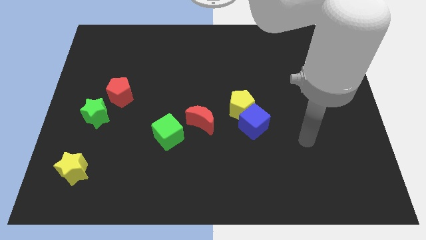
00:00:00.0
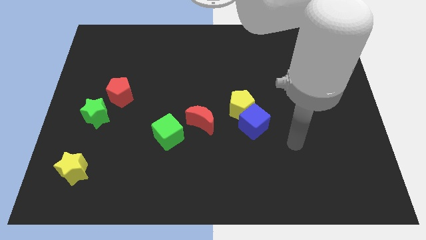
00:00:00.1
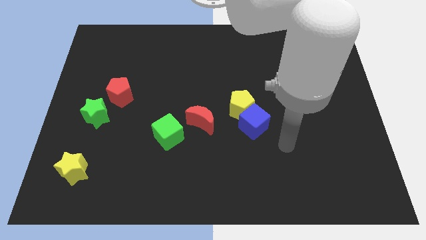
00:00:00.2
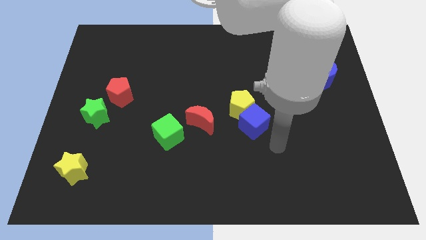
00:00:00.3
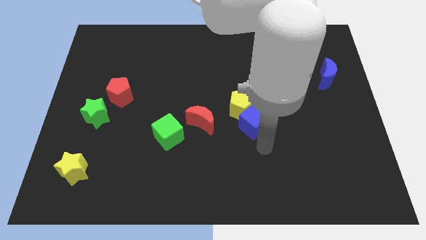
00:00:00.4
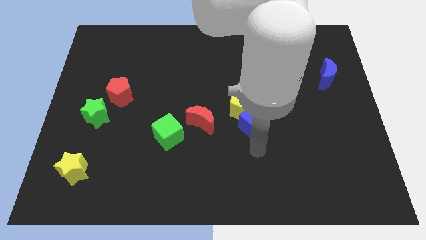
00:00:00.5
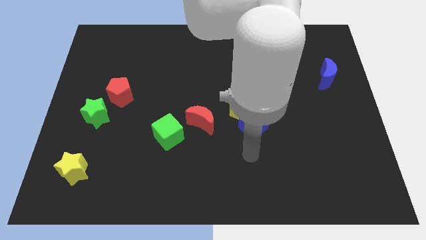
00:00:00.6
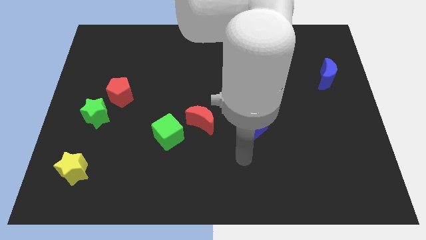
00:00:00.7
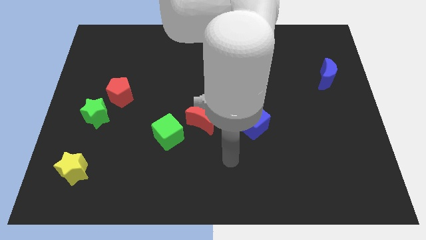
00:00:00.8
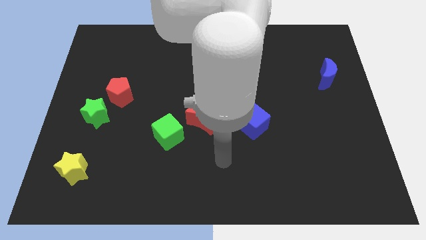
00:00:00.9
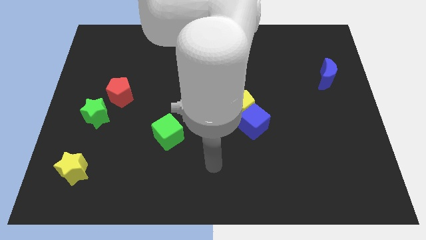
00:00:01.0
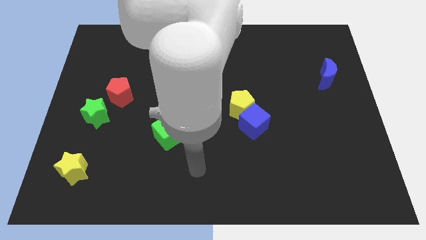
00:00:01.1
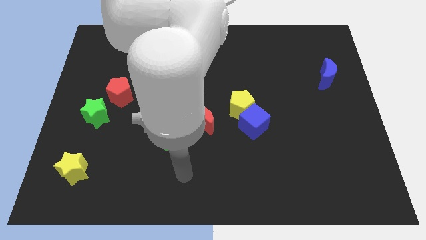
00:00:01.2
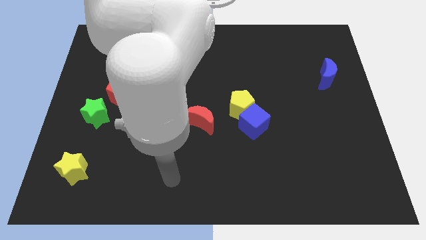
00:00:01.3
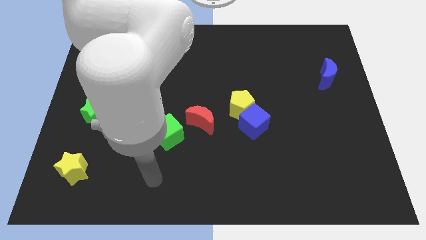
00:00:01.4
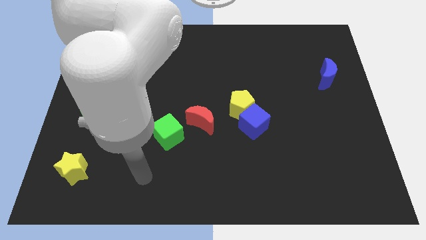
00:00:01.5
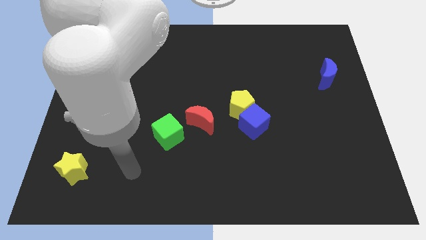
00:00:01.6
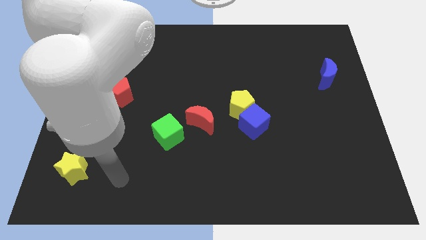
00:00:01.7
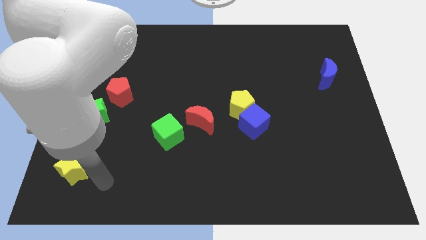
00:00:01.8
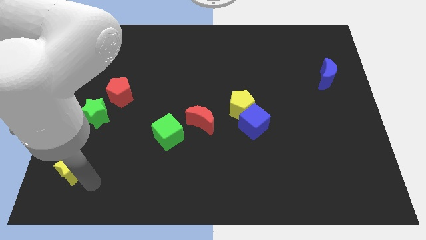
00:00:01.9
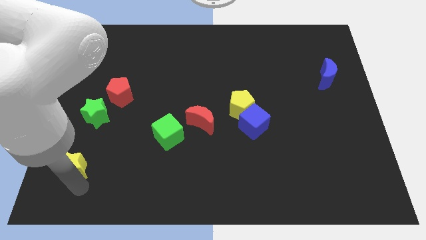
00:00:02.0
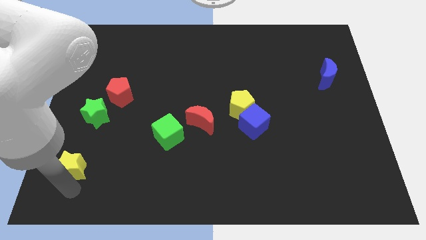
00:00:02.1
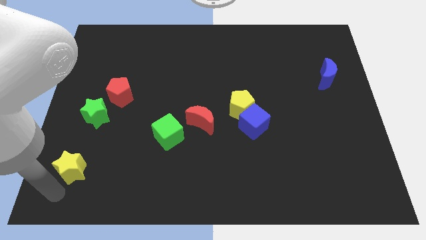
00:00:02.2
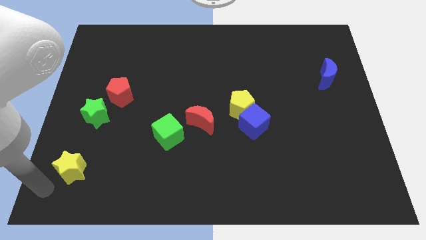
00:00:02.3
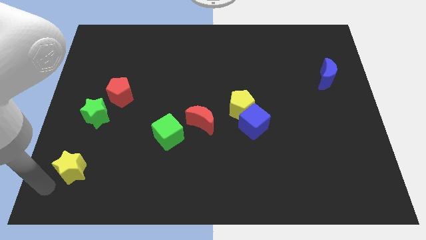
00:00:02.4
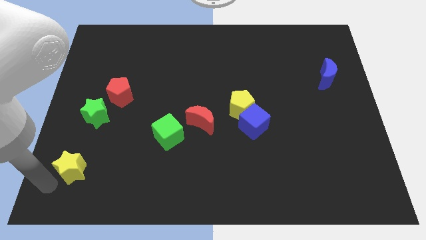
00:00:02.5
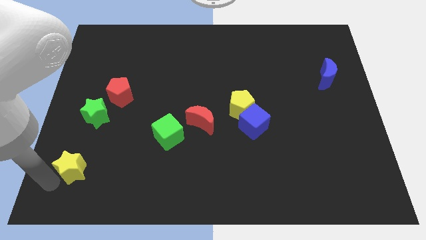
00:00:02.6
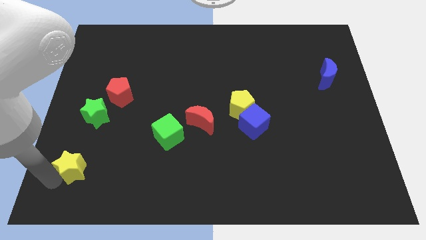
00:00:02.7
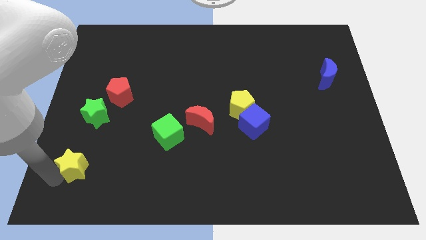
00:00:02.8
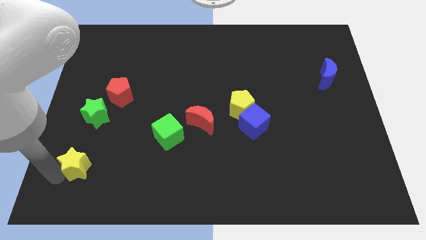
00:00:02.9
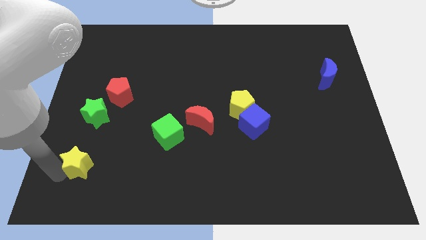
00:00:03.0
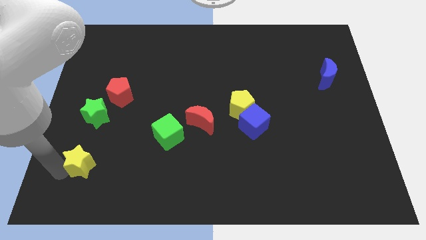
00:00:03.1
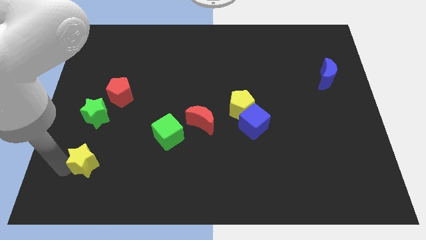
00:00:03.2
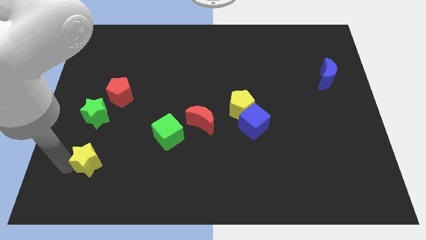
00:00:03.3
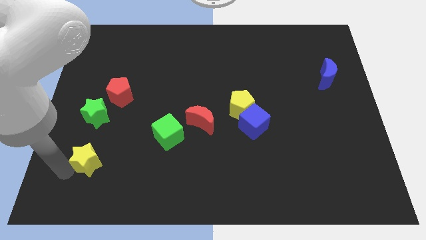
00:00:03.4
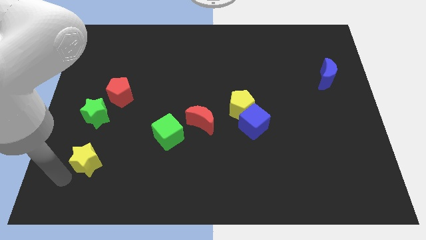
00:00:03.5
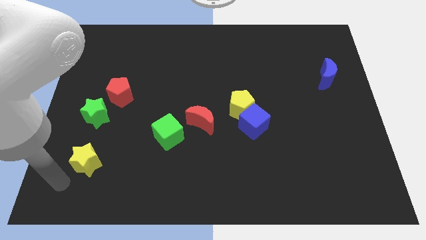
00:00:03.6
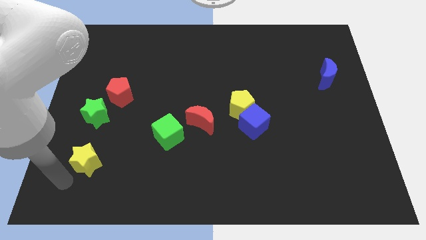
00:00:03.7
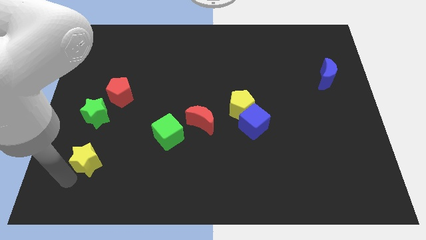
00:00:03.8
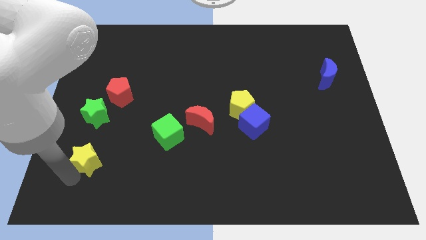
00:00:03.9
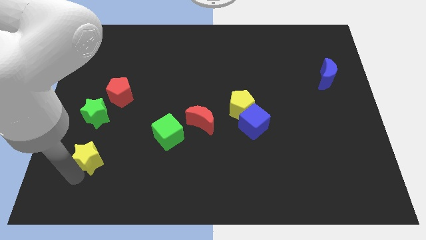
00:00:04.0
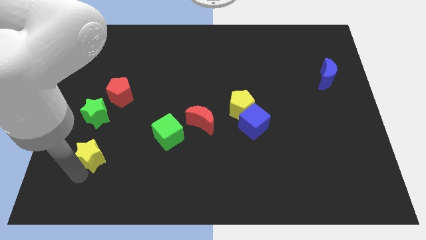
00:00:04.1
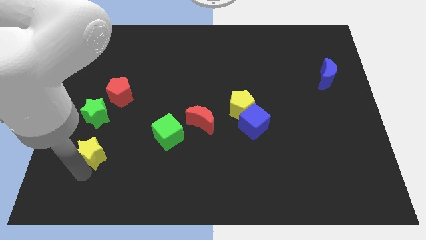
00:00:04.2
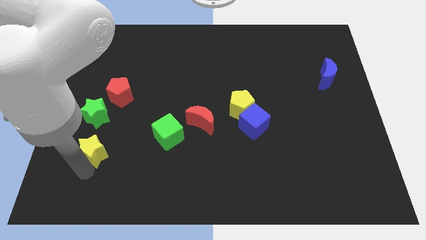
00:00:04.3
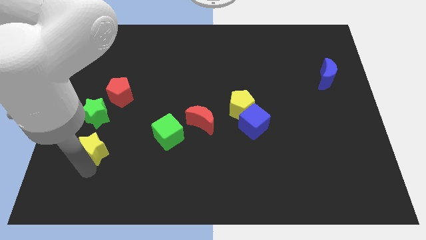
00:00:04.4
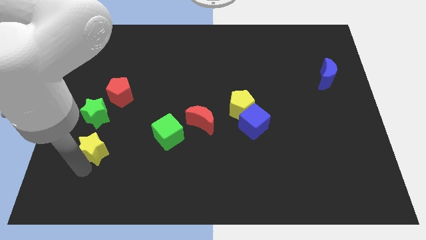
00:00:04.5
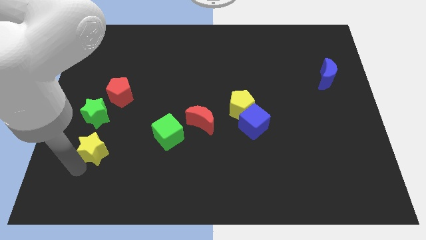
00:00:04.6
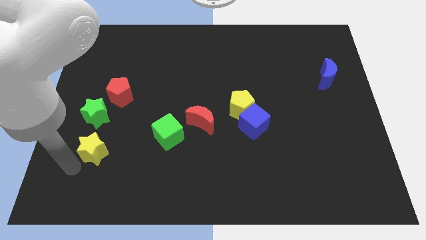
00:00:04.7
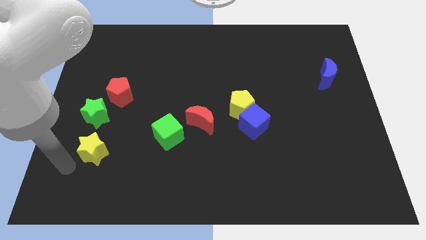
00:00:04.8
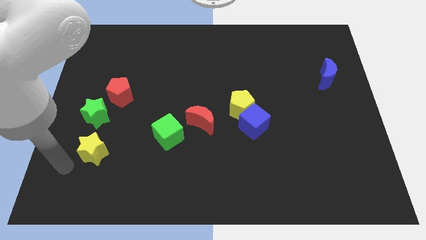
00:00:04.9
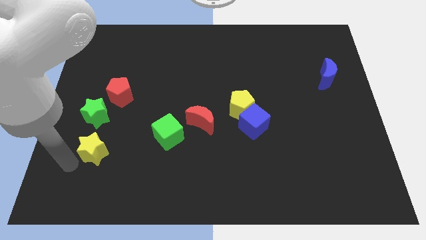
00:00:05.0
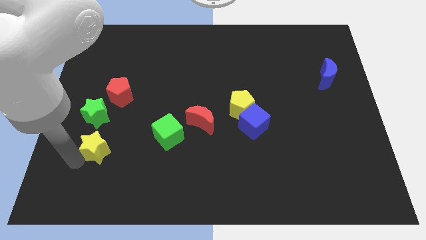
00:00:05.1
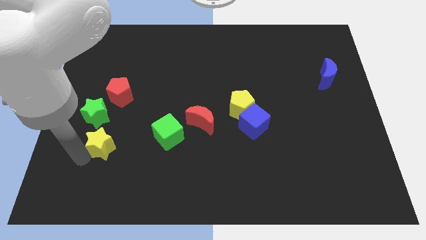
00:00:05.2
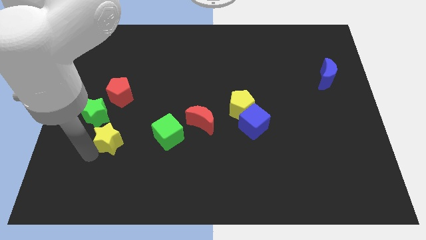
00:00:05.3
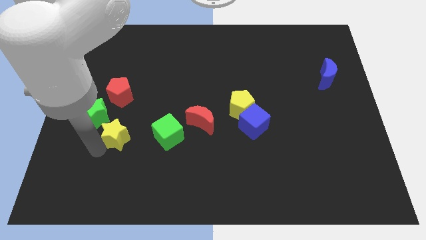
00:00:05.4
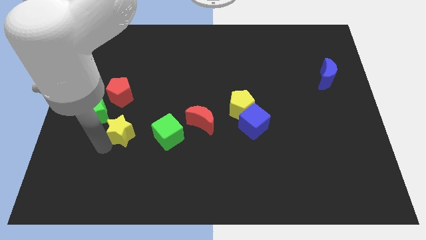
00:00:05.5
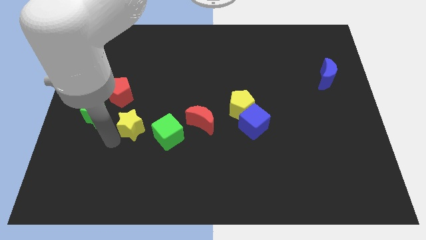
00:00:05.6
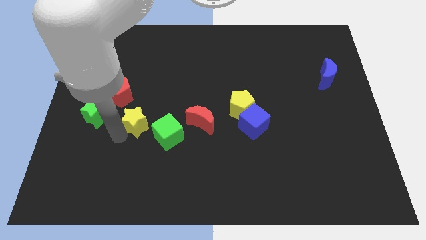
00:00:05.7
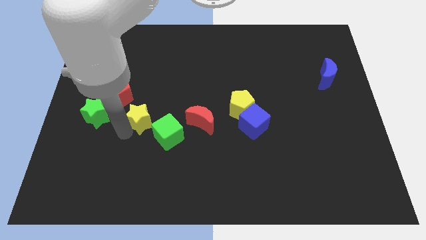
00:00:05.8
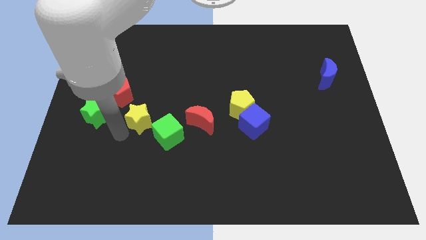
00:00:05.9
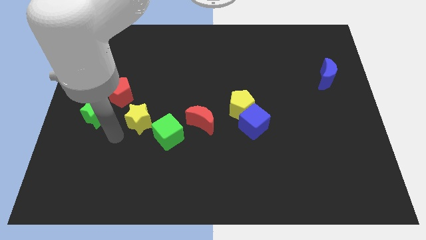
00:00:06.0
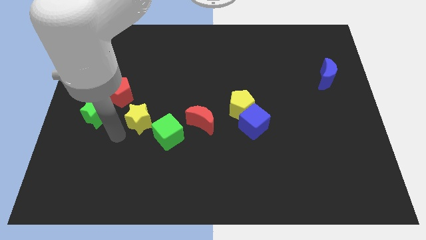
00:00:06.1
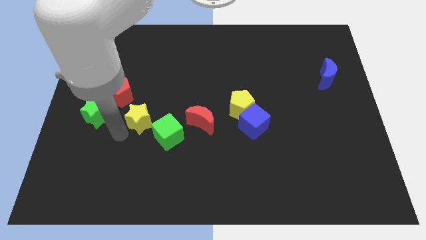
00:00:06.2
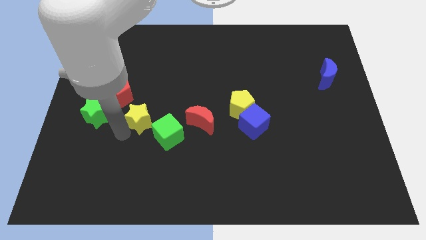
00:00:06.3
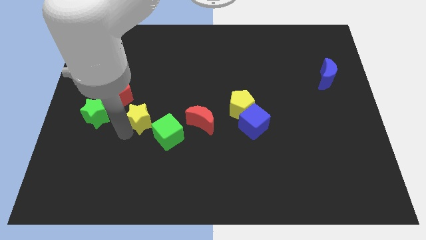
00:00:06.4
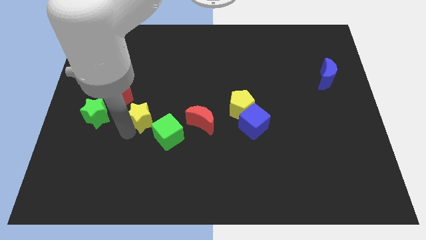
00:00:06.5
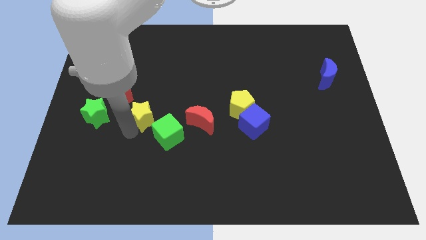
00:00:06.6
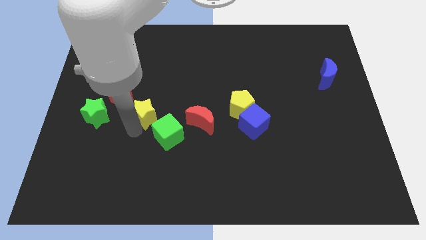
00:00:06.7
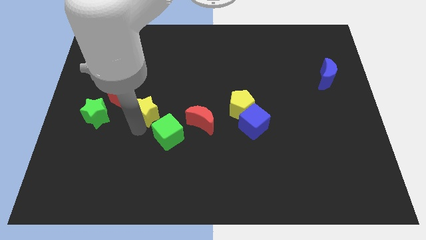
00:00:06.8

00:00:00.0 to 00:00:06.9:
slide the yellow star upwards and right

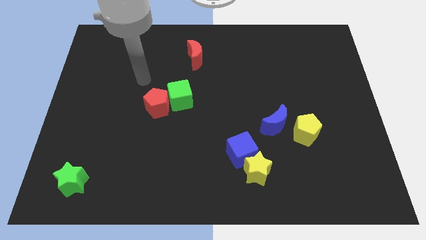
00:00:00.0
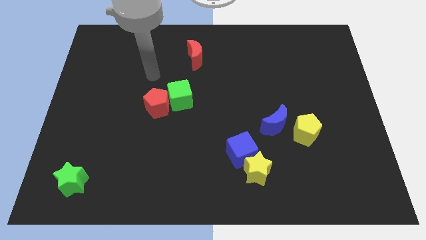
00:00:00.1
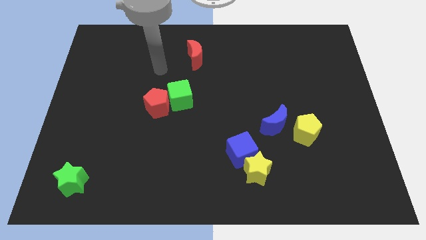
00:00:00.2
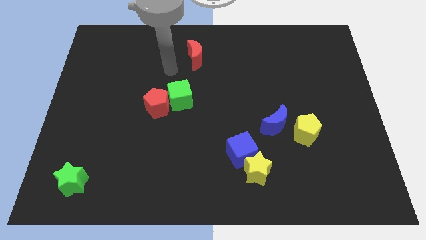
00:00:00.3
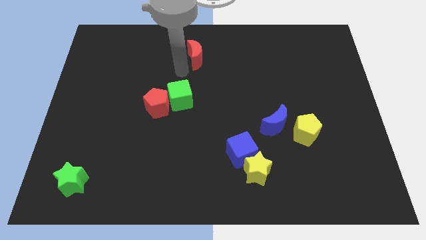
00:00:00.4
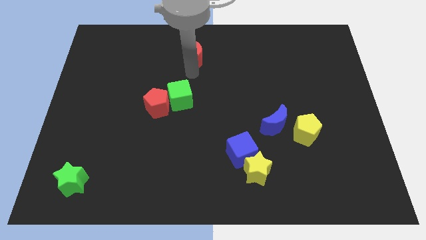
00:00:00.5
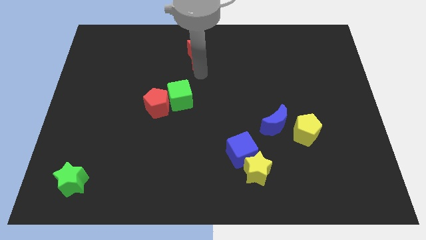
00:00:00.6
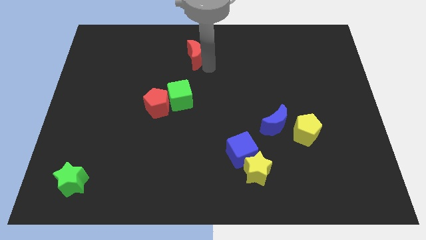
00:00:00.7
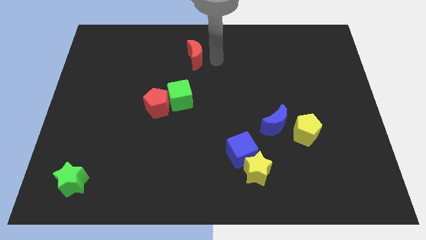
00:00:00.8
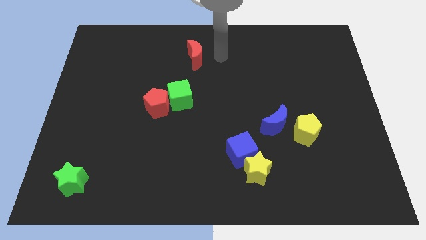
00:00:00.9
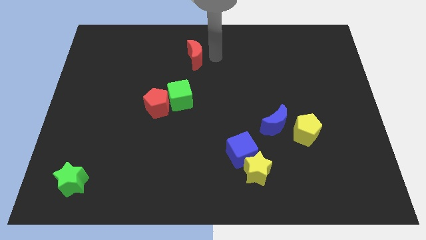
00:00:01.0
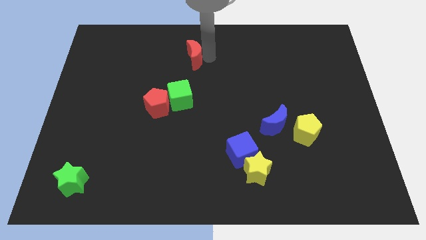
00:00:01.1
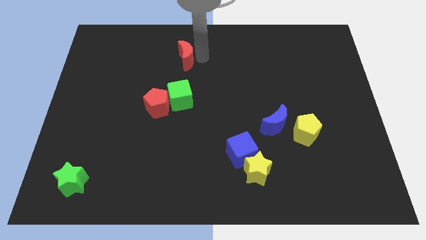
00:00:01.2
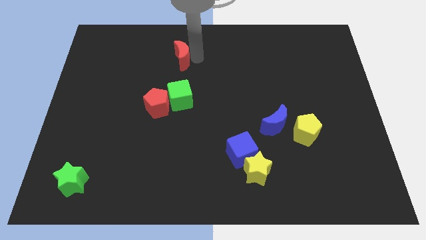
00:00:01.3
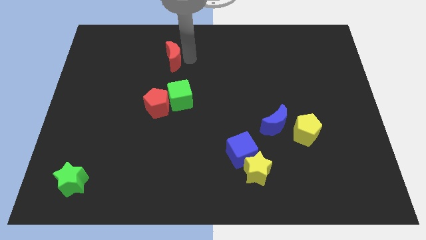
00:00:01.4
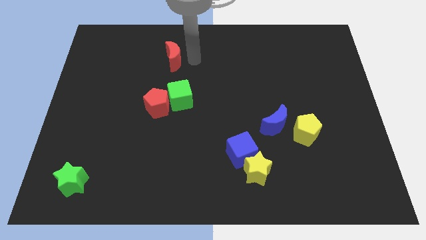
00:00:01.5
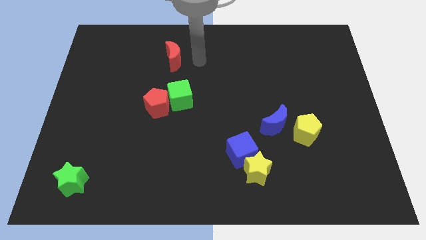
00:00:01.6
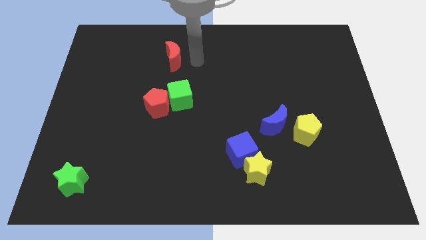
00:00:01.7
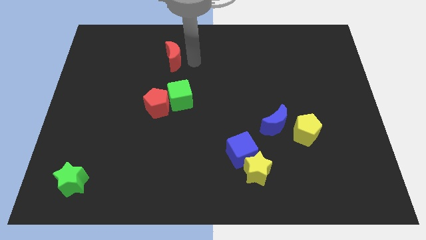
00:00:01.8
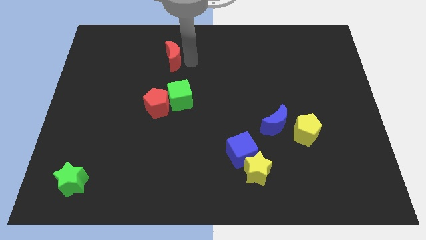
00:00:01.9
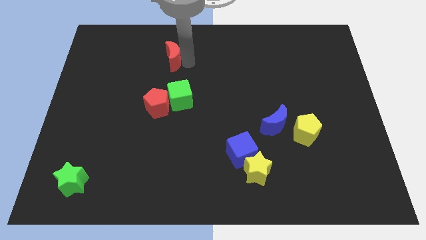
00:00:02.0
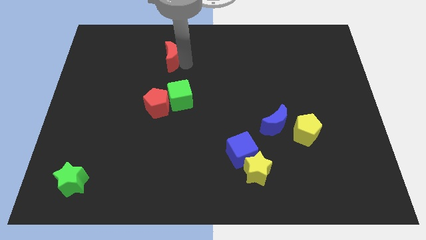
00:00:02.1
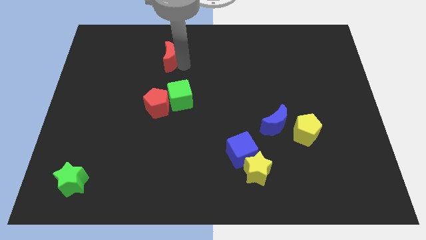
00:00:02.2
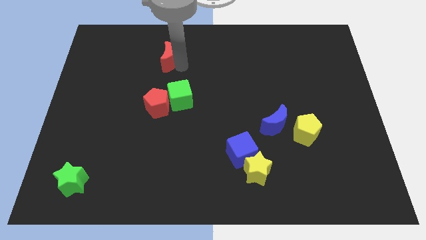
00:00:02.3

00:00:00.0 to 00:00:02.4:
push the red moon to the left somewhat
